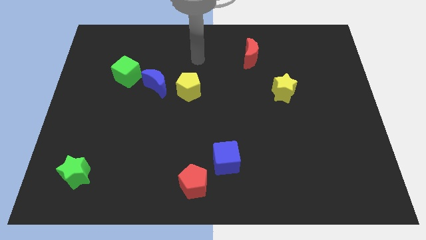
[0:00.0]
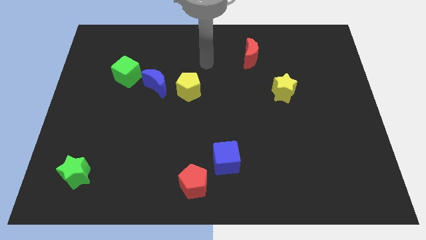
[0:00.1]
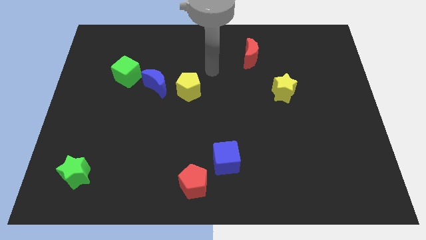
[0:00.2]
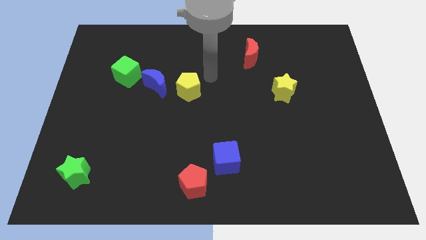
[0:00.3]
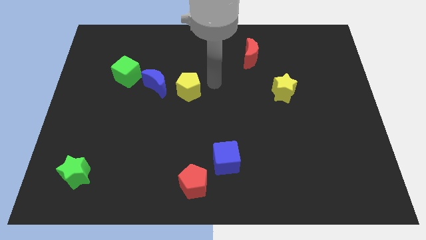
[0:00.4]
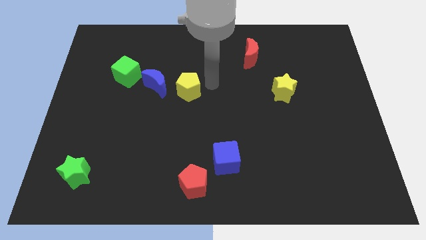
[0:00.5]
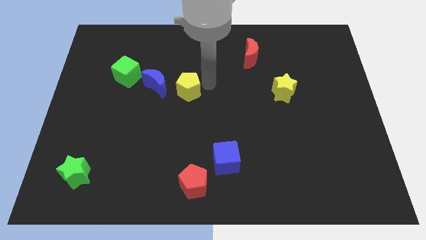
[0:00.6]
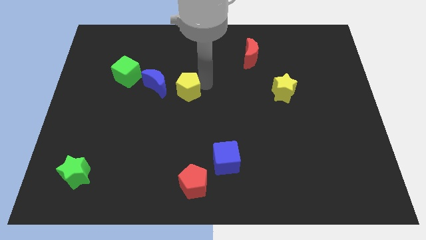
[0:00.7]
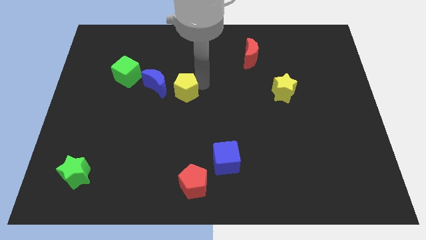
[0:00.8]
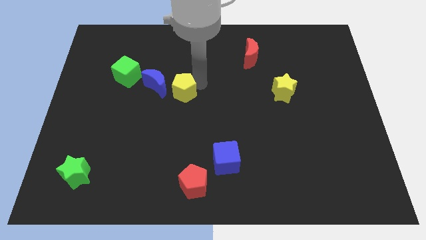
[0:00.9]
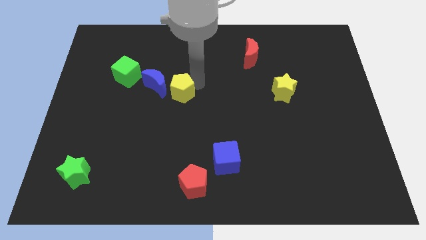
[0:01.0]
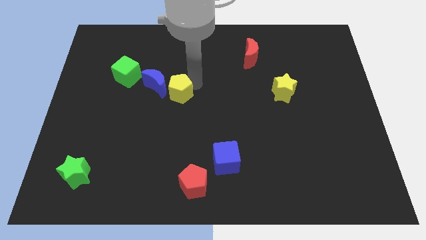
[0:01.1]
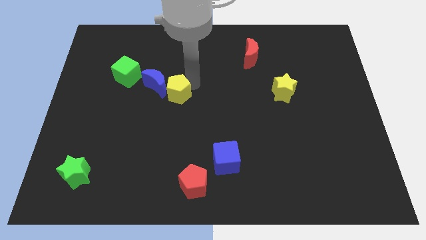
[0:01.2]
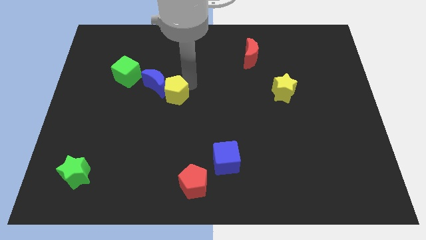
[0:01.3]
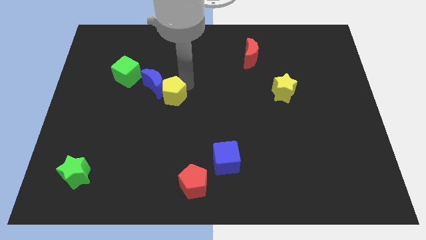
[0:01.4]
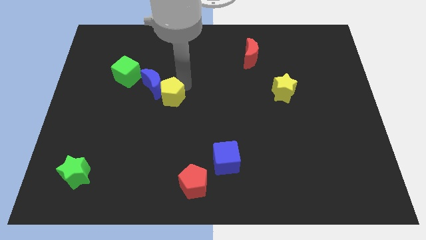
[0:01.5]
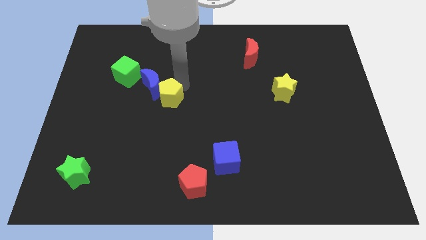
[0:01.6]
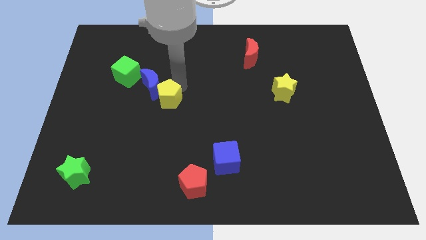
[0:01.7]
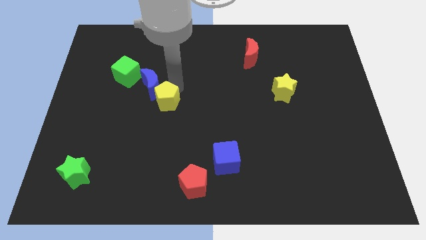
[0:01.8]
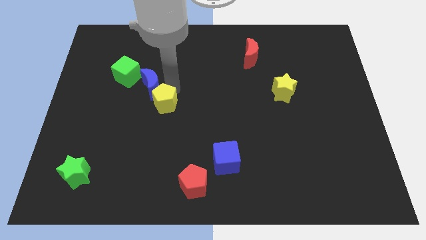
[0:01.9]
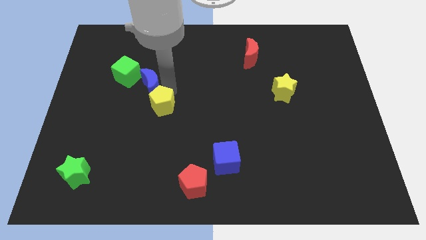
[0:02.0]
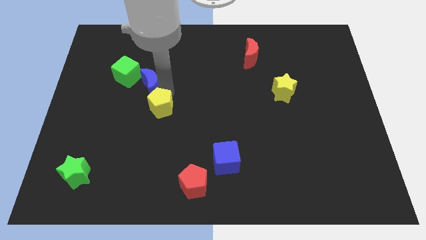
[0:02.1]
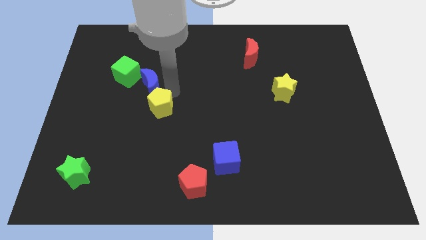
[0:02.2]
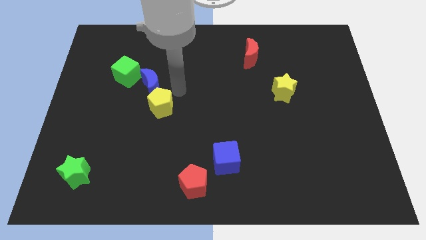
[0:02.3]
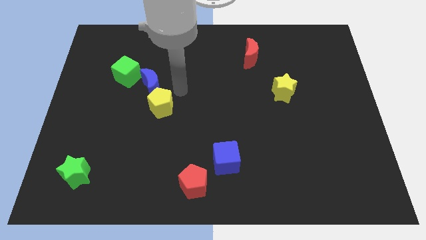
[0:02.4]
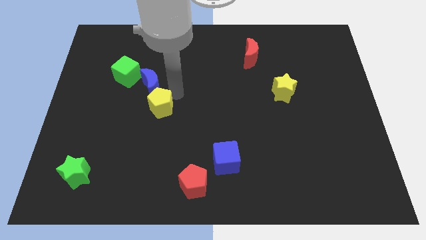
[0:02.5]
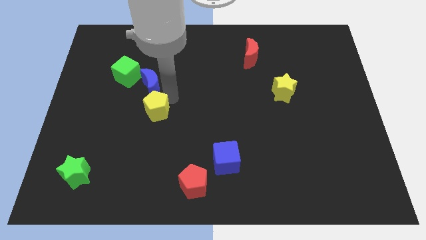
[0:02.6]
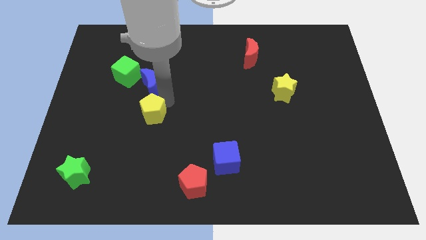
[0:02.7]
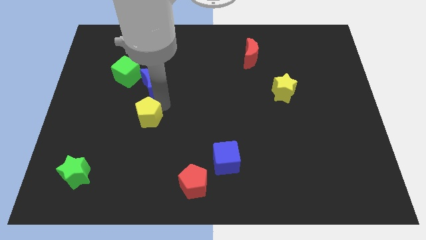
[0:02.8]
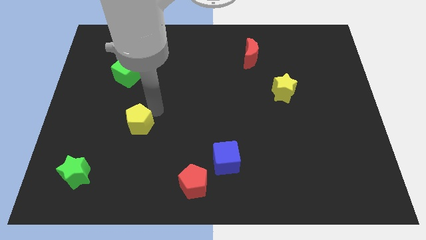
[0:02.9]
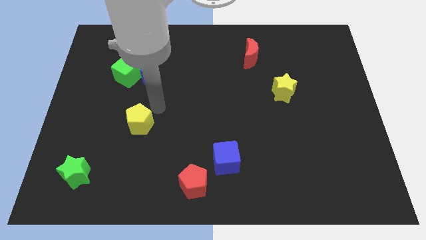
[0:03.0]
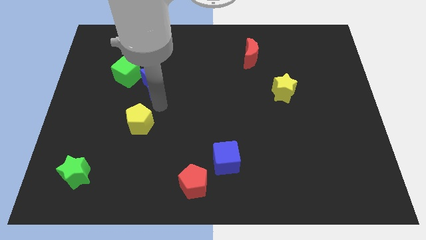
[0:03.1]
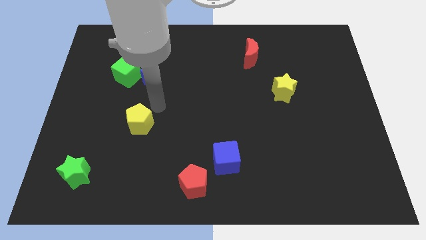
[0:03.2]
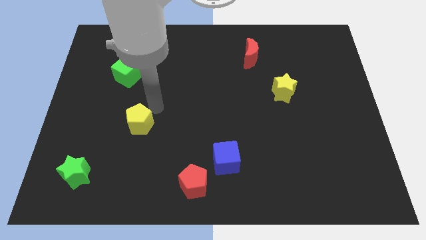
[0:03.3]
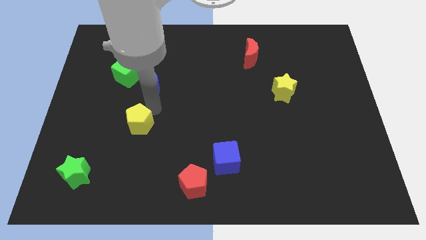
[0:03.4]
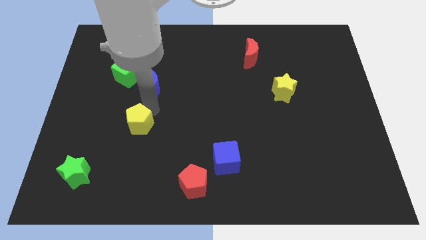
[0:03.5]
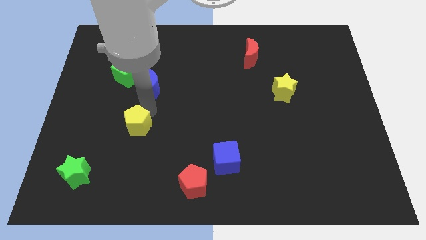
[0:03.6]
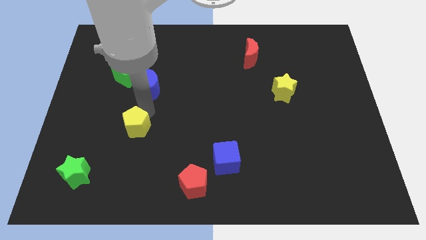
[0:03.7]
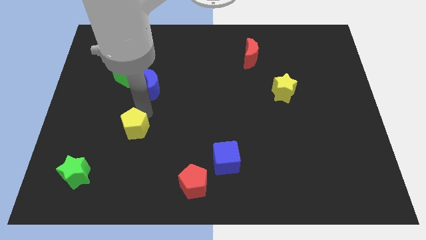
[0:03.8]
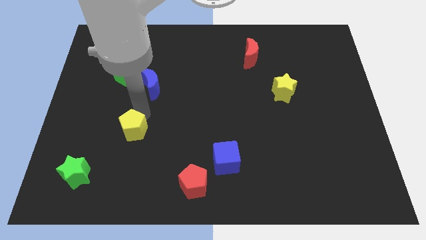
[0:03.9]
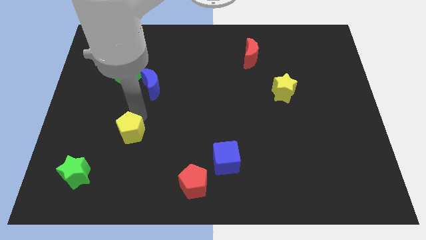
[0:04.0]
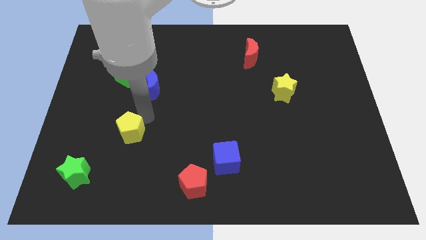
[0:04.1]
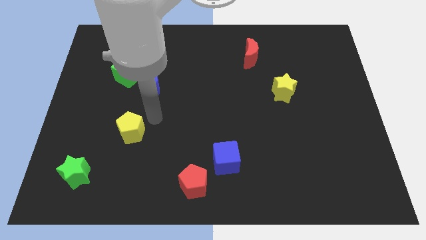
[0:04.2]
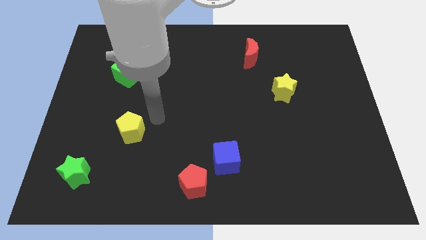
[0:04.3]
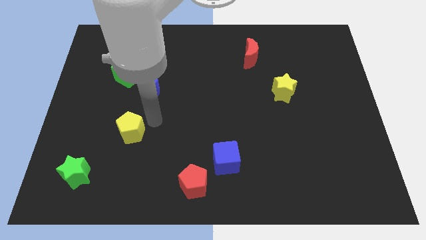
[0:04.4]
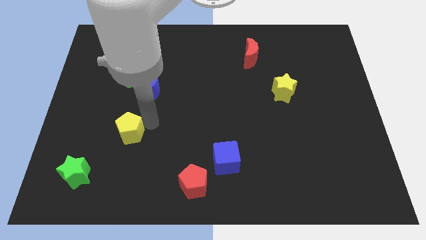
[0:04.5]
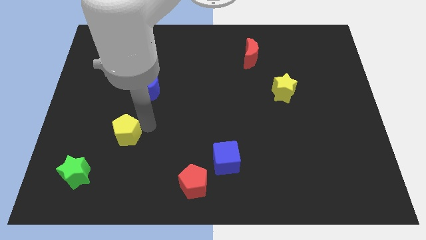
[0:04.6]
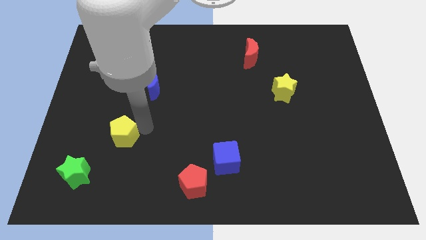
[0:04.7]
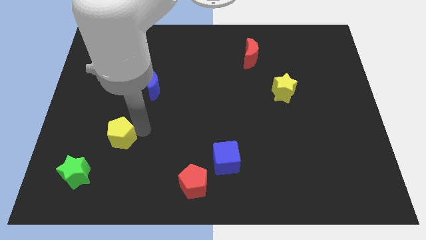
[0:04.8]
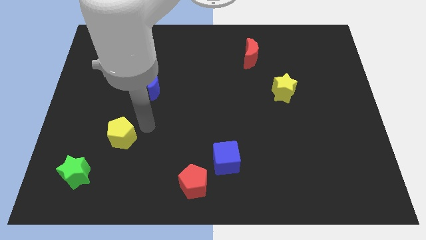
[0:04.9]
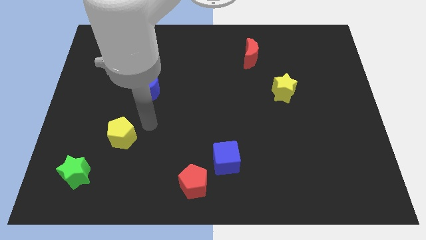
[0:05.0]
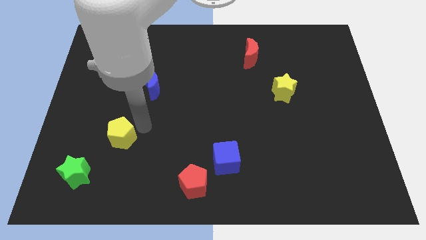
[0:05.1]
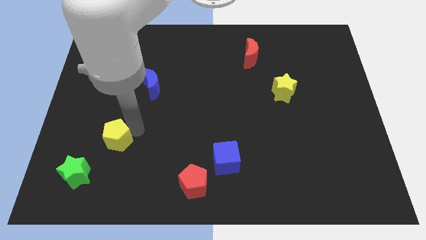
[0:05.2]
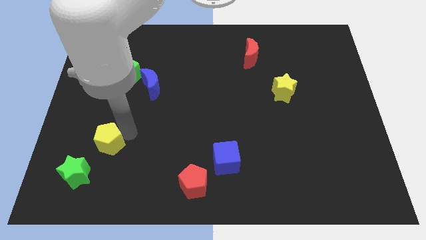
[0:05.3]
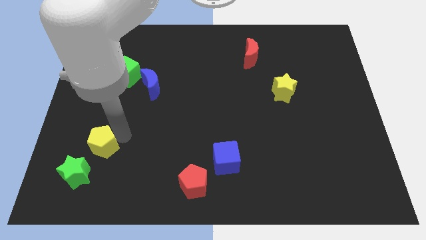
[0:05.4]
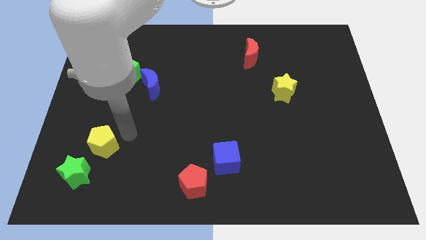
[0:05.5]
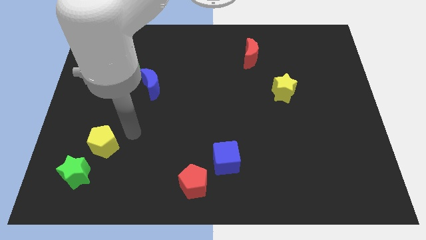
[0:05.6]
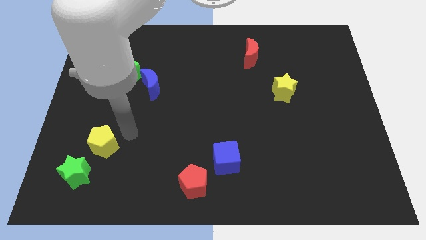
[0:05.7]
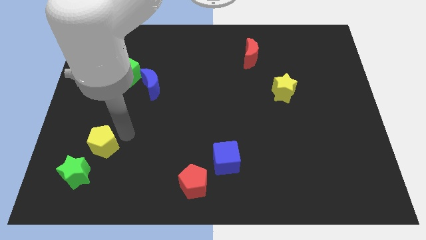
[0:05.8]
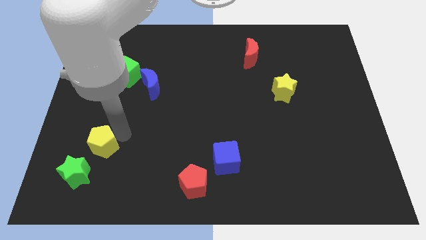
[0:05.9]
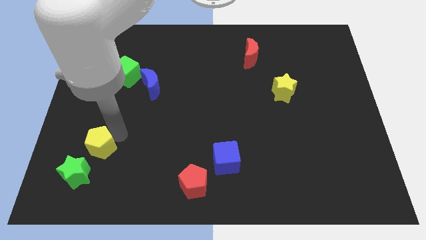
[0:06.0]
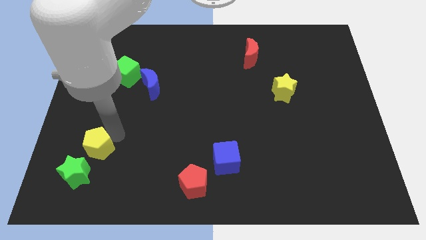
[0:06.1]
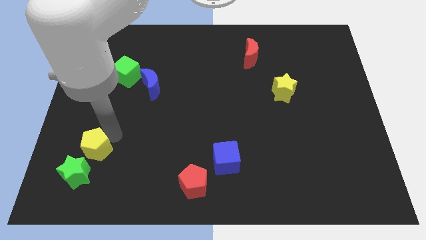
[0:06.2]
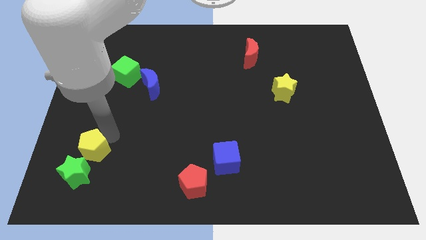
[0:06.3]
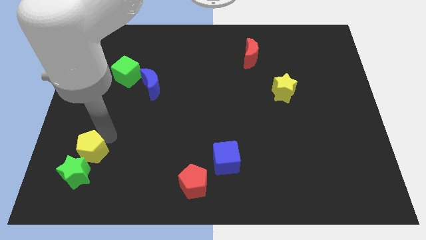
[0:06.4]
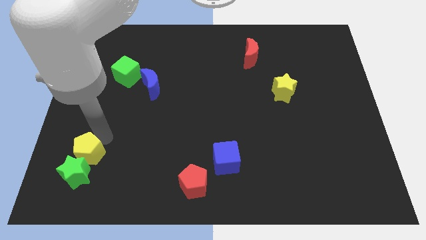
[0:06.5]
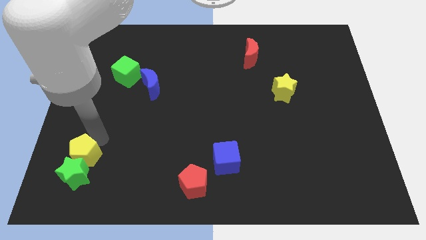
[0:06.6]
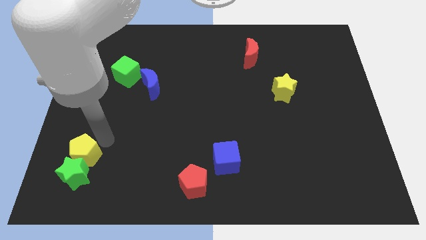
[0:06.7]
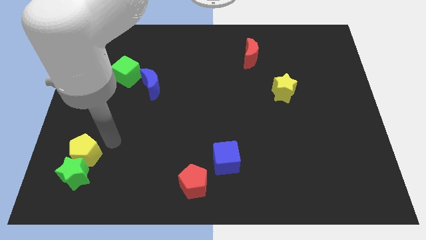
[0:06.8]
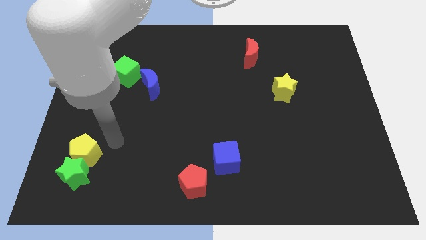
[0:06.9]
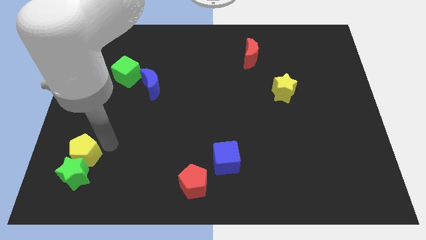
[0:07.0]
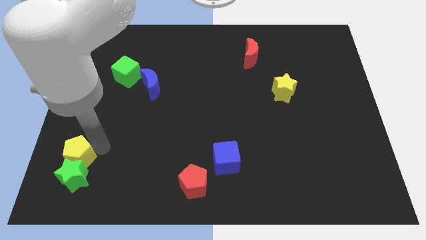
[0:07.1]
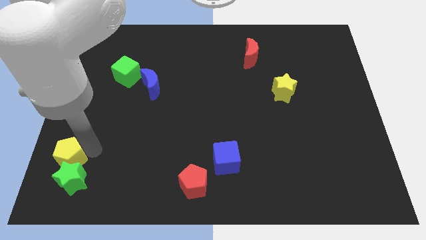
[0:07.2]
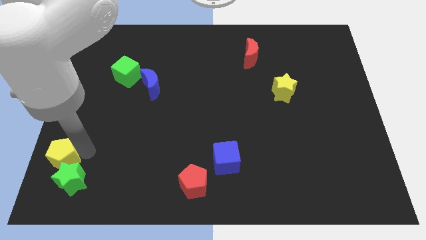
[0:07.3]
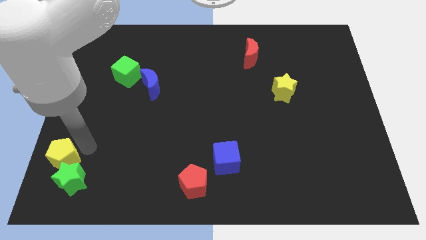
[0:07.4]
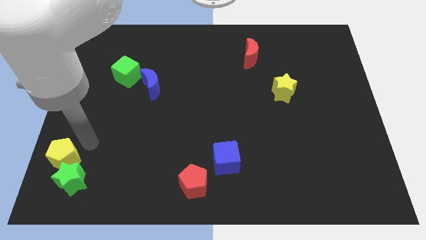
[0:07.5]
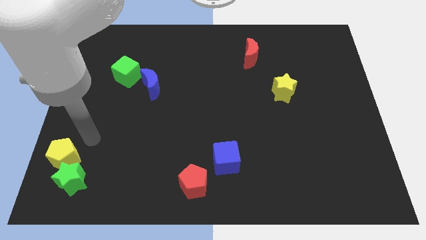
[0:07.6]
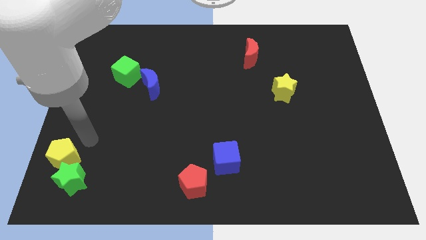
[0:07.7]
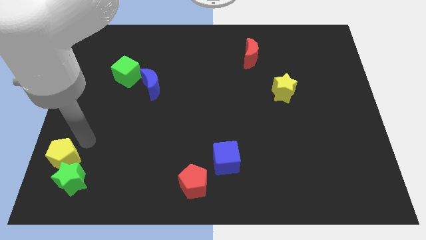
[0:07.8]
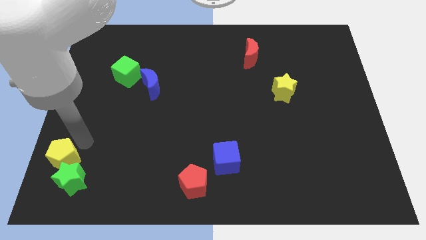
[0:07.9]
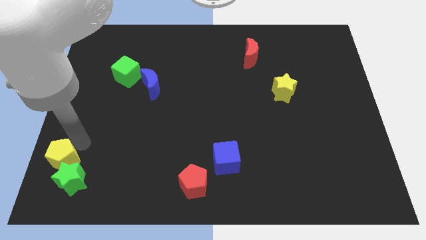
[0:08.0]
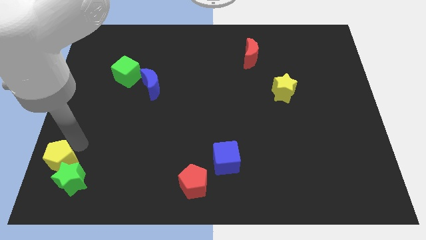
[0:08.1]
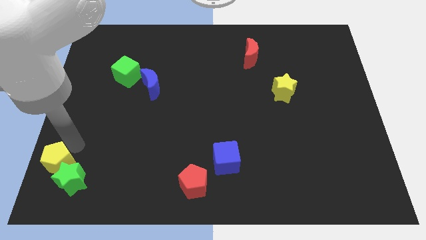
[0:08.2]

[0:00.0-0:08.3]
slide the yellow pentagon to the bottom left
